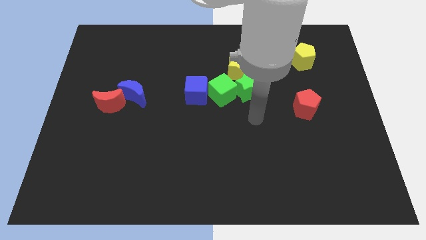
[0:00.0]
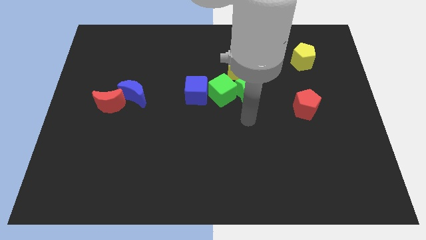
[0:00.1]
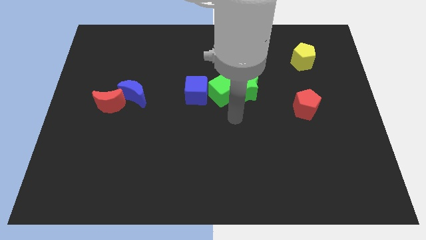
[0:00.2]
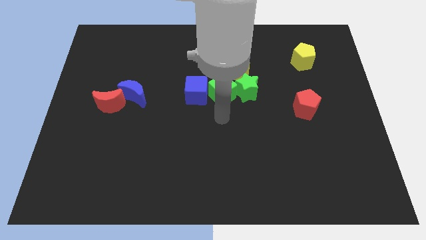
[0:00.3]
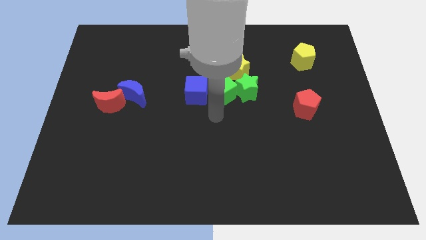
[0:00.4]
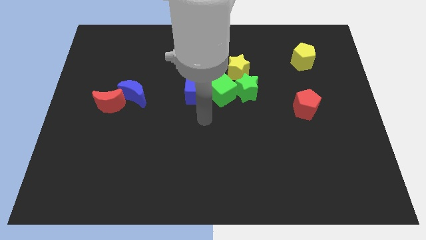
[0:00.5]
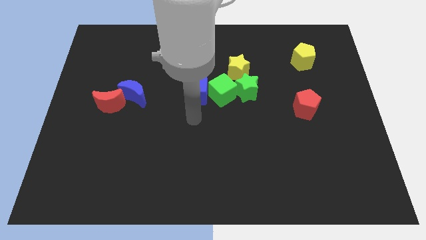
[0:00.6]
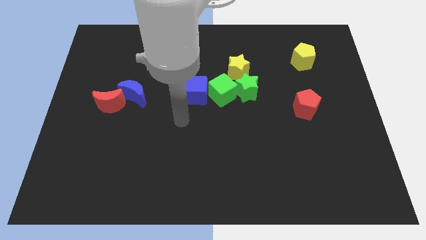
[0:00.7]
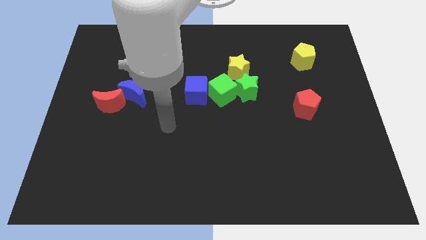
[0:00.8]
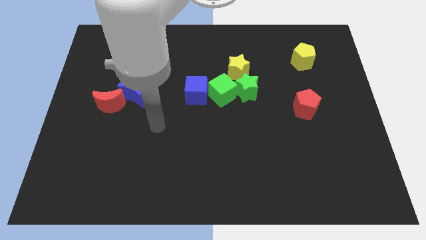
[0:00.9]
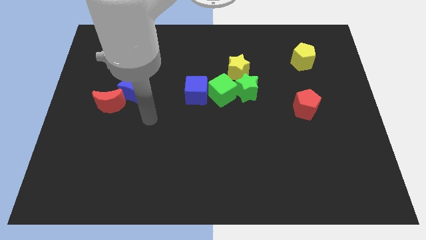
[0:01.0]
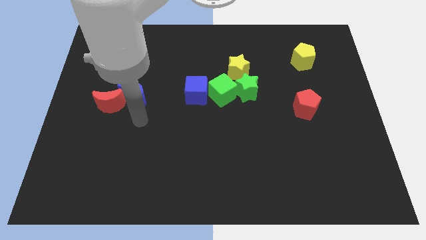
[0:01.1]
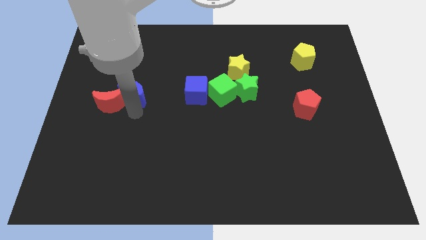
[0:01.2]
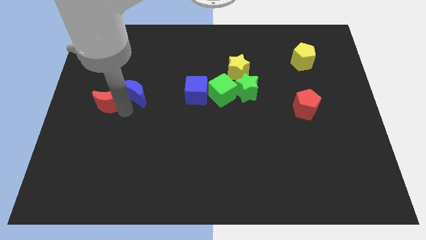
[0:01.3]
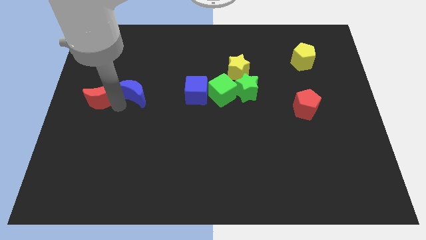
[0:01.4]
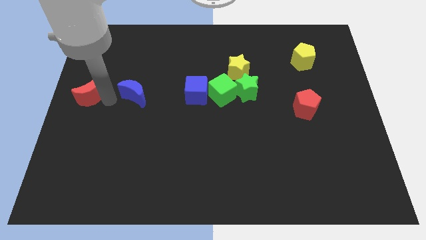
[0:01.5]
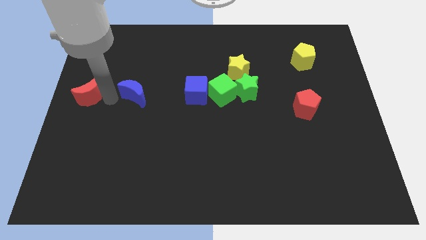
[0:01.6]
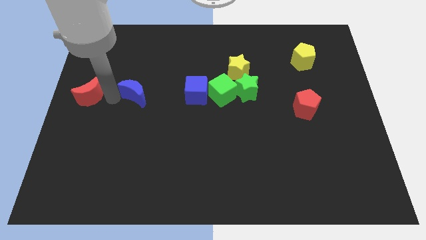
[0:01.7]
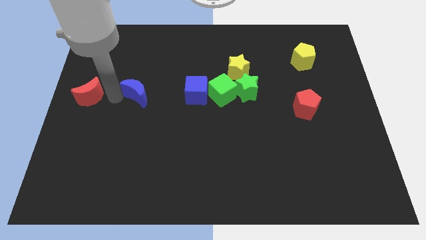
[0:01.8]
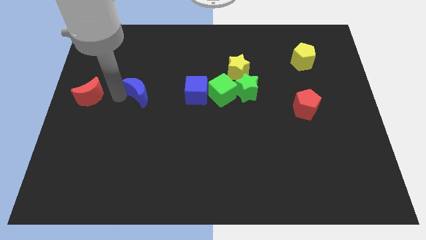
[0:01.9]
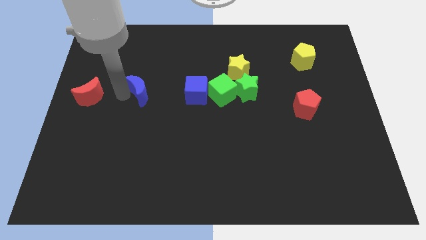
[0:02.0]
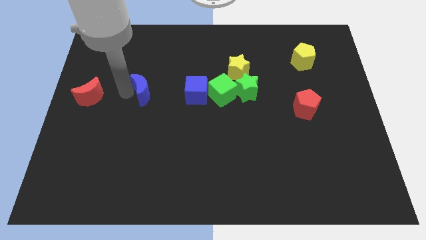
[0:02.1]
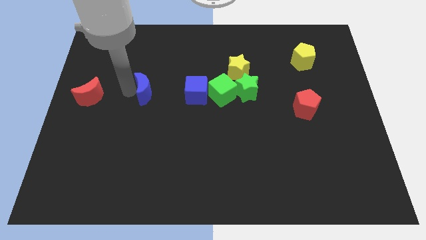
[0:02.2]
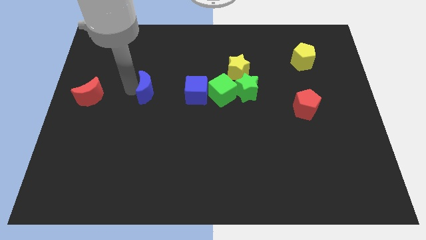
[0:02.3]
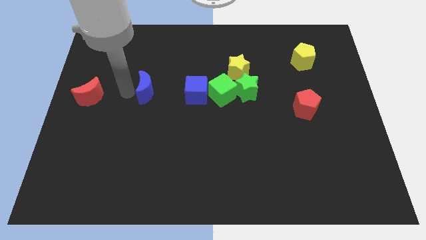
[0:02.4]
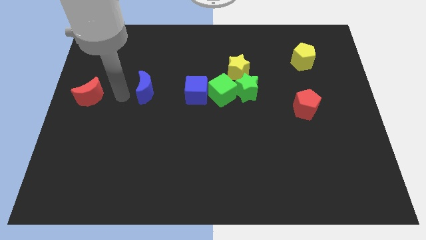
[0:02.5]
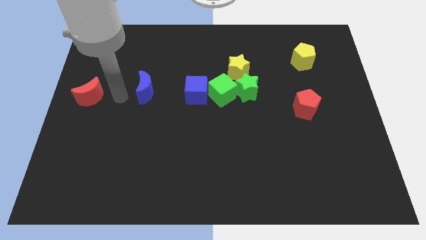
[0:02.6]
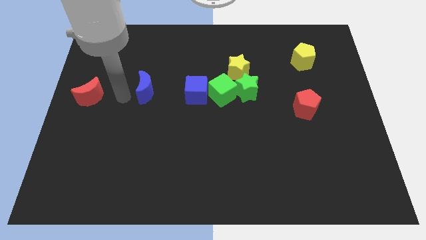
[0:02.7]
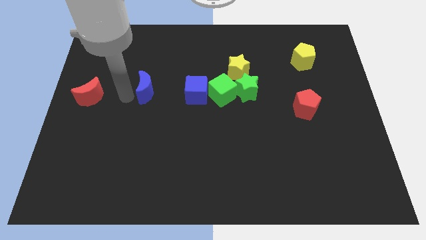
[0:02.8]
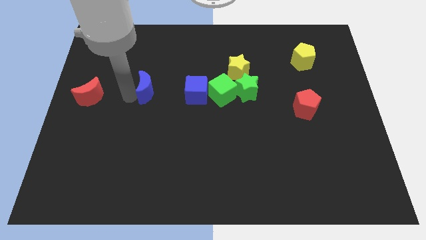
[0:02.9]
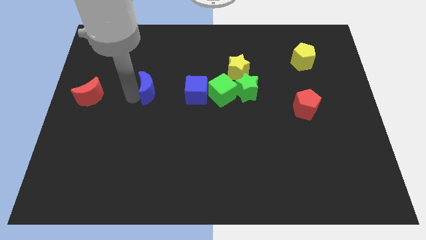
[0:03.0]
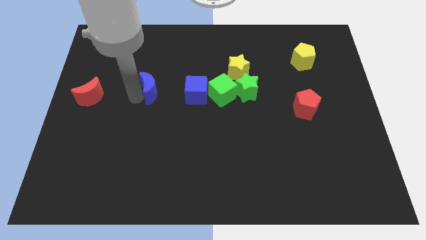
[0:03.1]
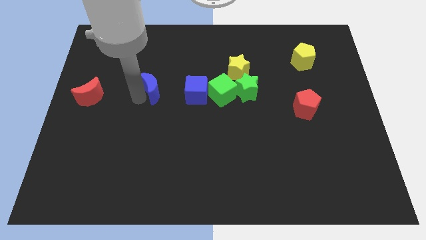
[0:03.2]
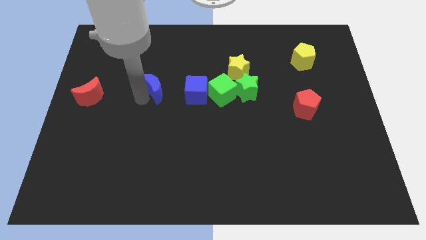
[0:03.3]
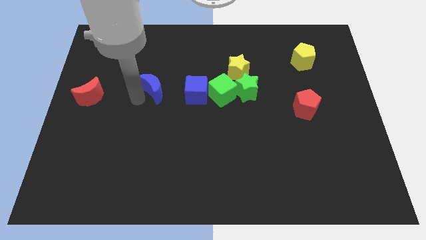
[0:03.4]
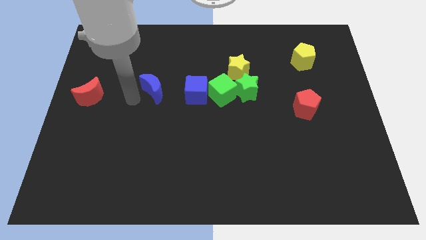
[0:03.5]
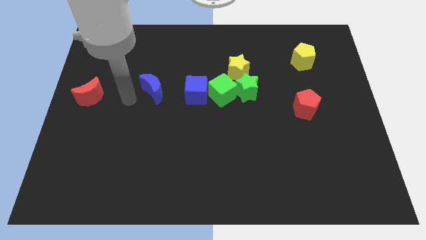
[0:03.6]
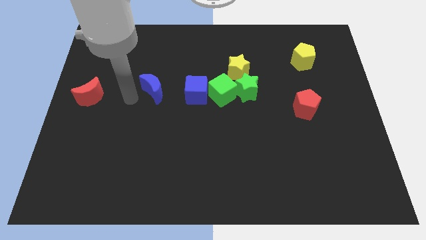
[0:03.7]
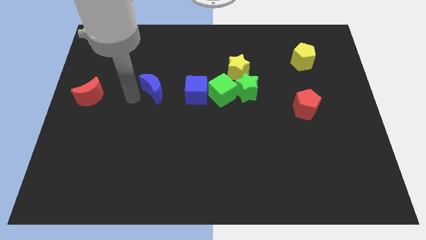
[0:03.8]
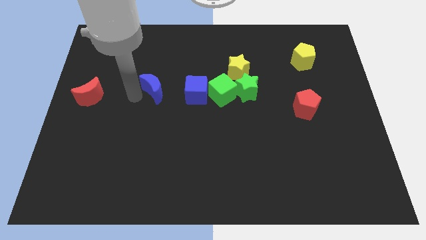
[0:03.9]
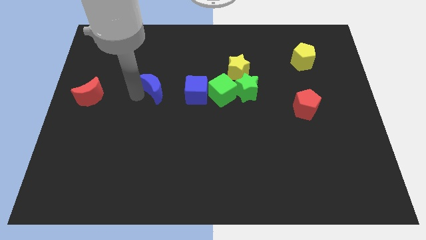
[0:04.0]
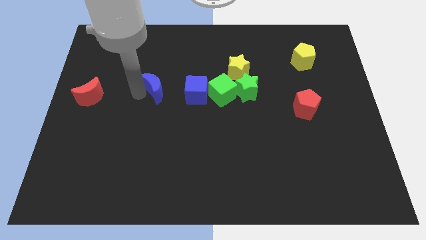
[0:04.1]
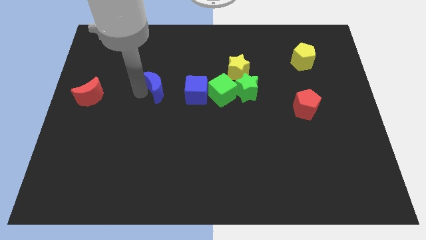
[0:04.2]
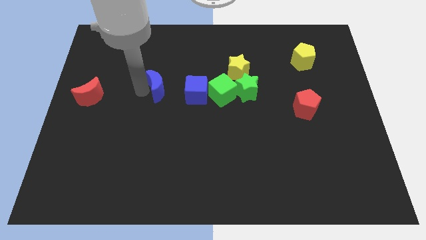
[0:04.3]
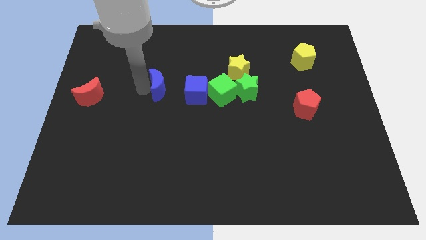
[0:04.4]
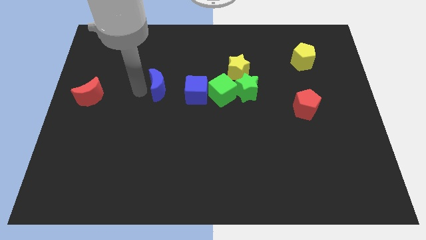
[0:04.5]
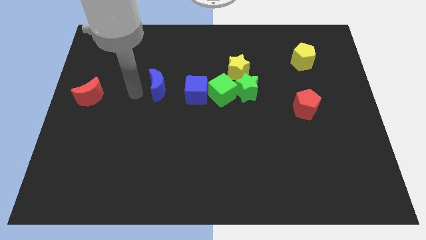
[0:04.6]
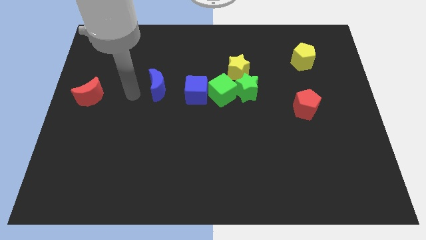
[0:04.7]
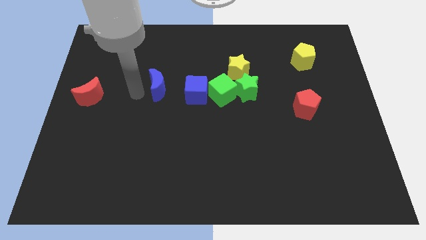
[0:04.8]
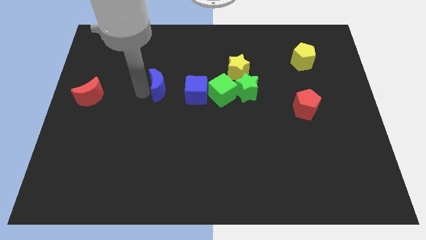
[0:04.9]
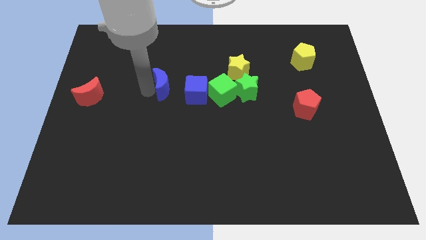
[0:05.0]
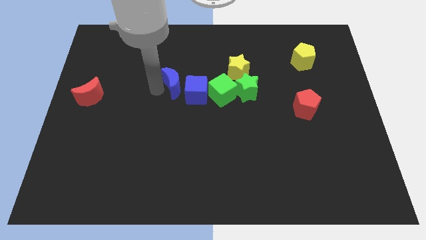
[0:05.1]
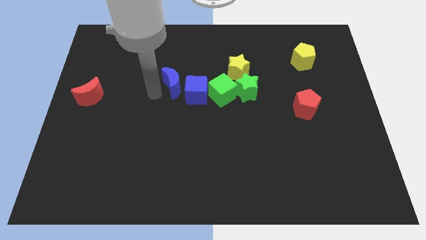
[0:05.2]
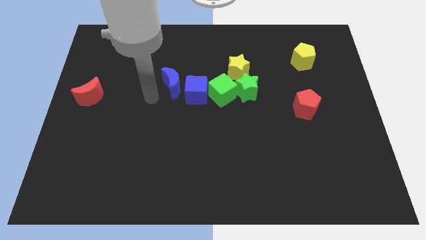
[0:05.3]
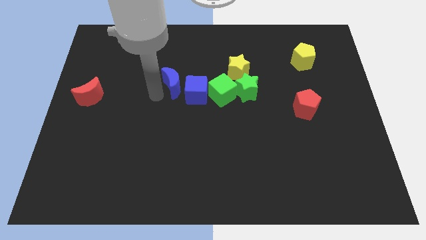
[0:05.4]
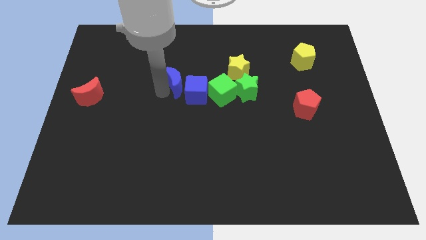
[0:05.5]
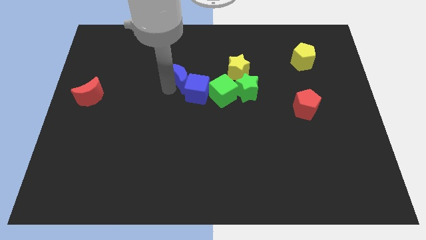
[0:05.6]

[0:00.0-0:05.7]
move the blue moon just left of the yellow star

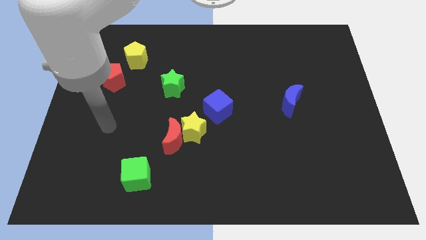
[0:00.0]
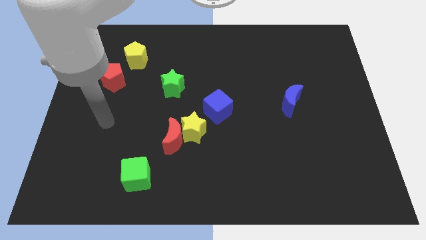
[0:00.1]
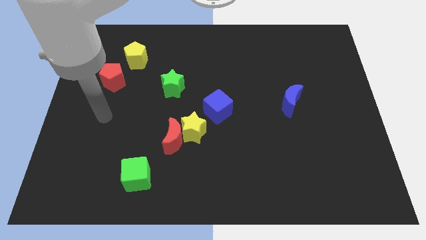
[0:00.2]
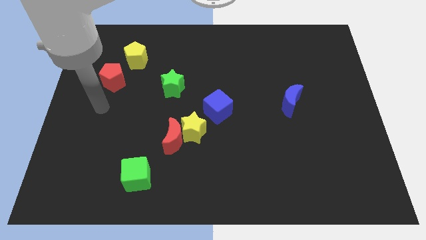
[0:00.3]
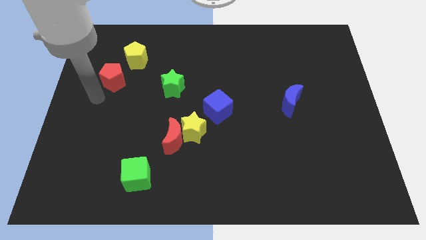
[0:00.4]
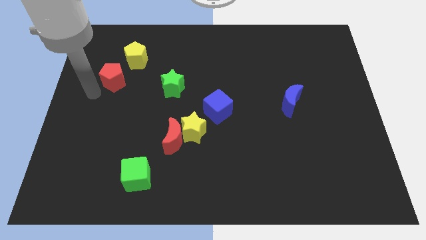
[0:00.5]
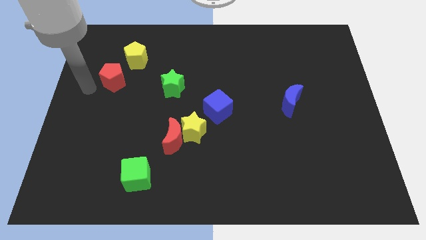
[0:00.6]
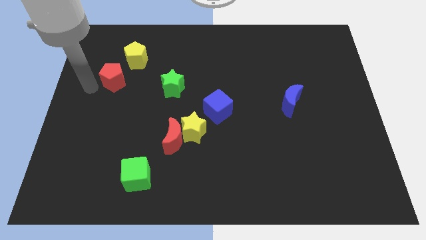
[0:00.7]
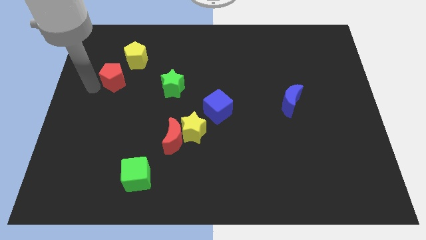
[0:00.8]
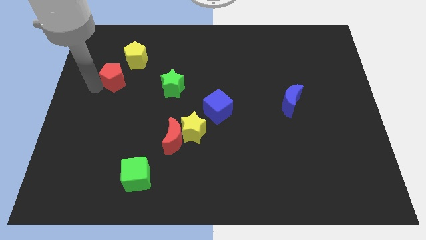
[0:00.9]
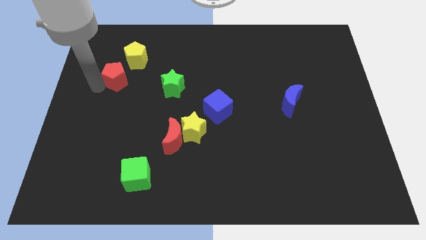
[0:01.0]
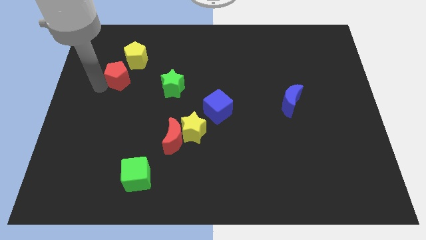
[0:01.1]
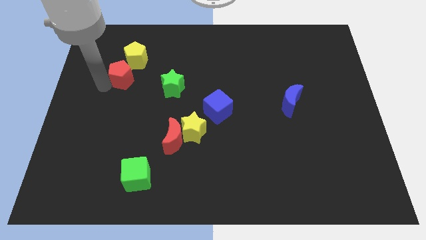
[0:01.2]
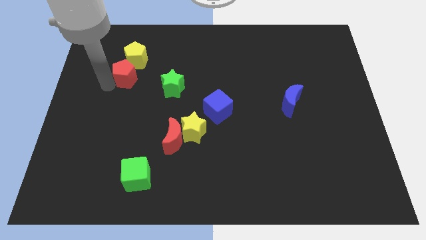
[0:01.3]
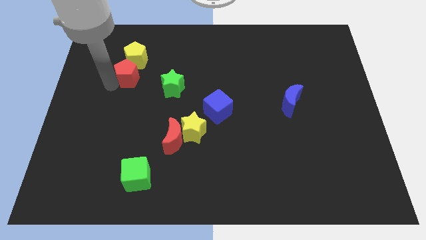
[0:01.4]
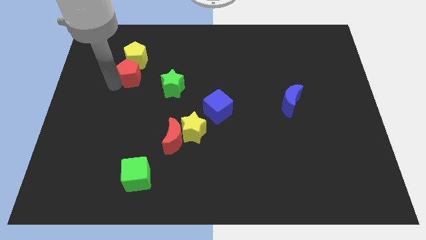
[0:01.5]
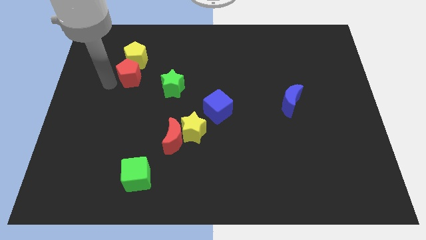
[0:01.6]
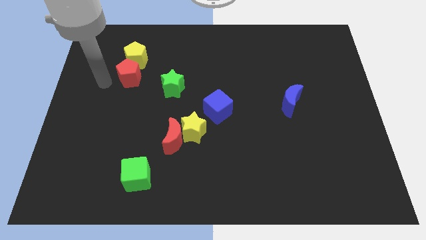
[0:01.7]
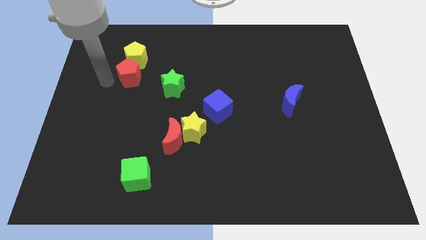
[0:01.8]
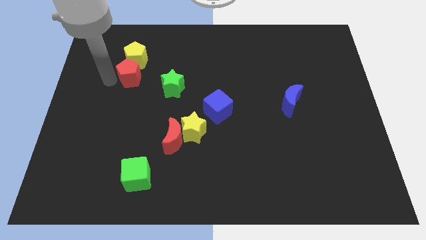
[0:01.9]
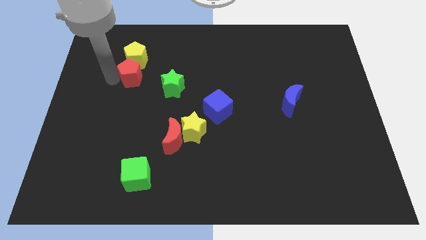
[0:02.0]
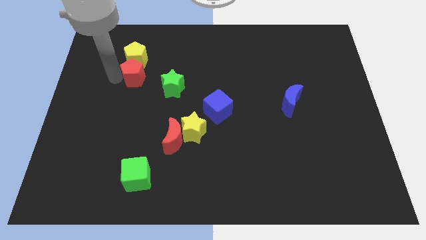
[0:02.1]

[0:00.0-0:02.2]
slide the red pentagon to the top left of the green star
